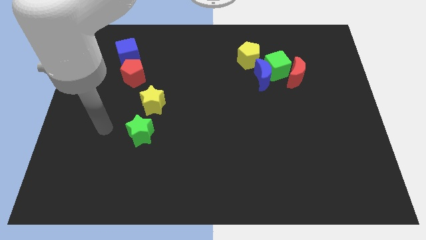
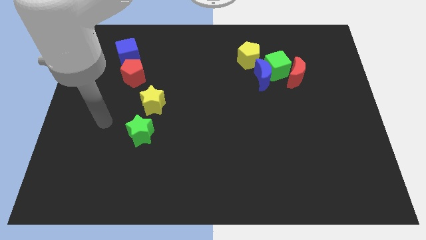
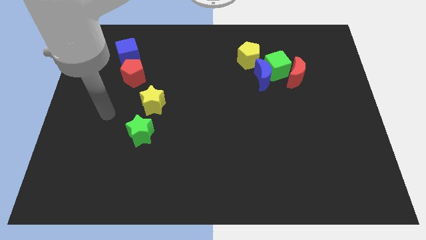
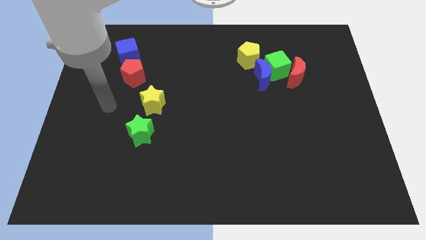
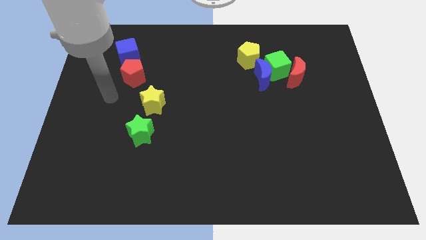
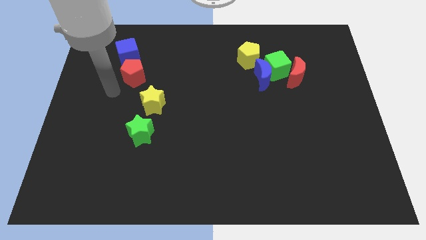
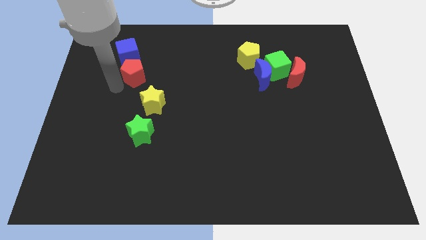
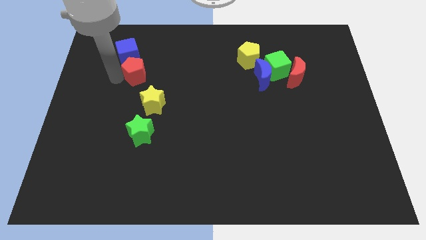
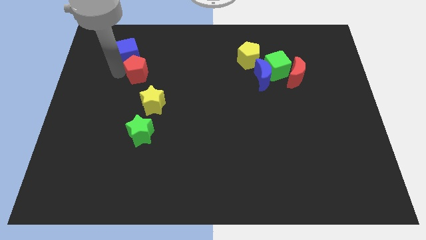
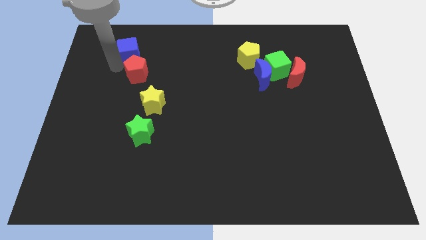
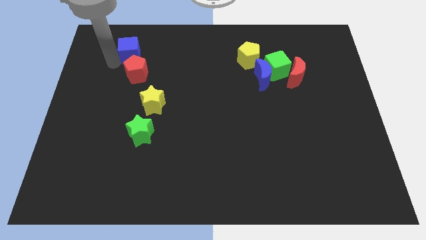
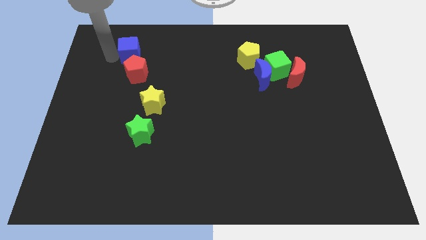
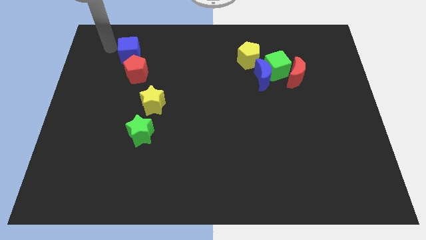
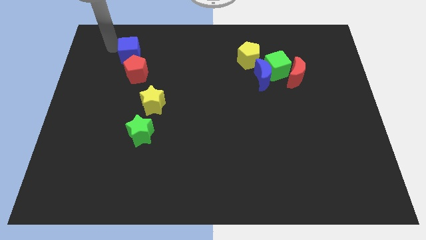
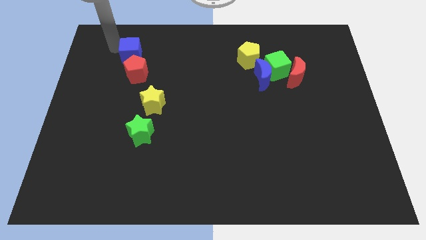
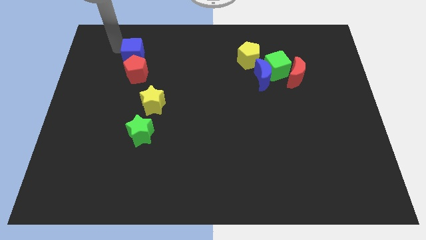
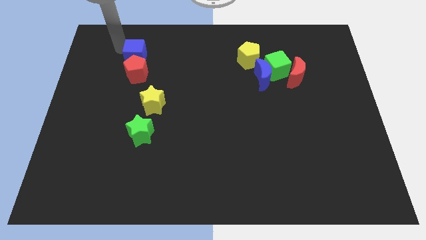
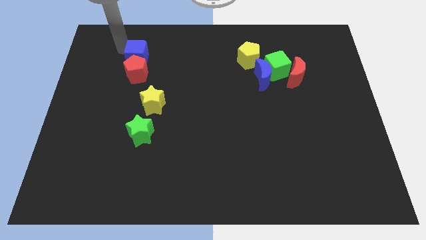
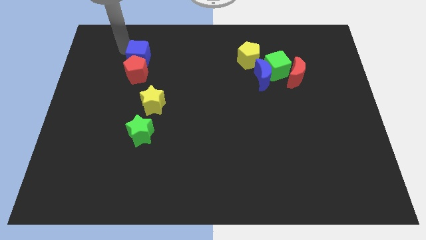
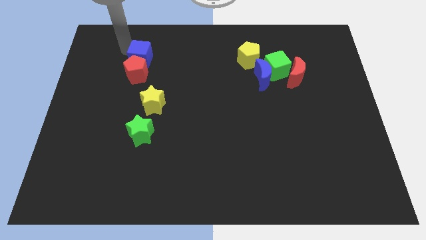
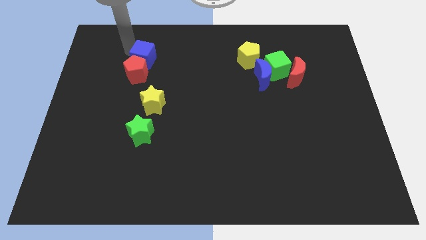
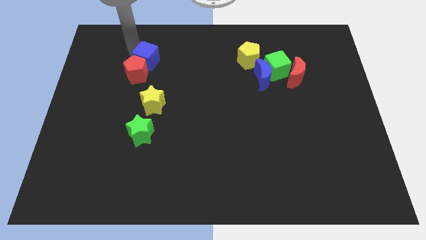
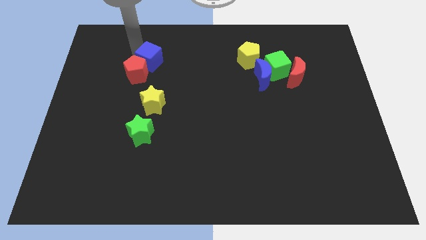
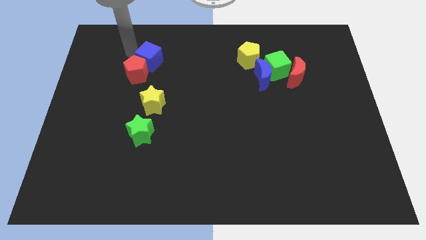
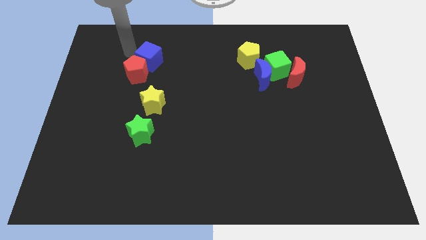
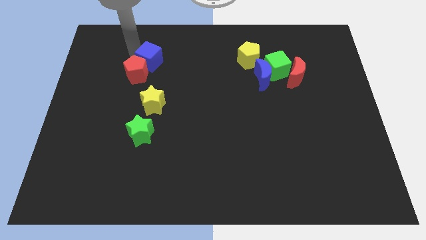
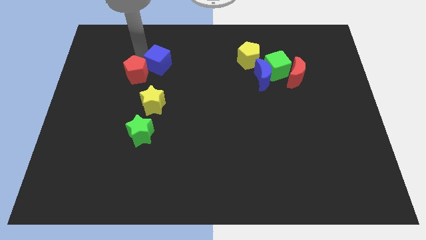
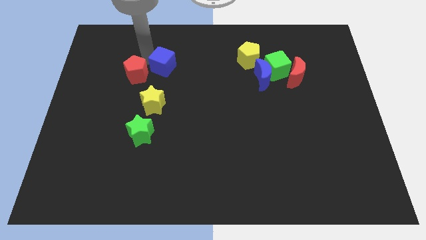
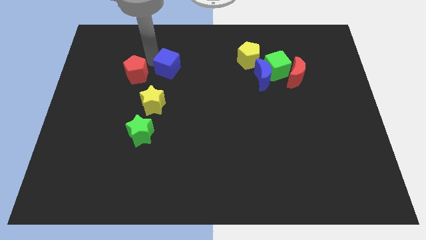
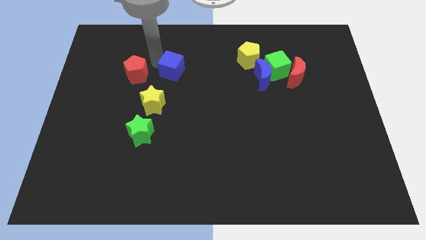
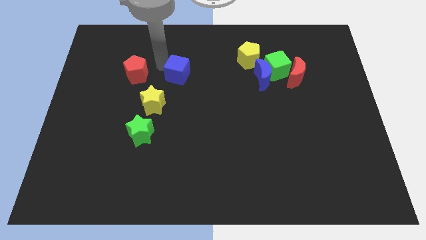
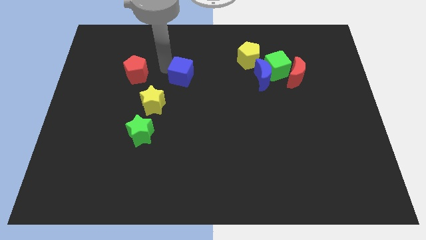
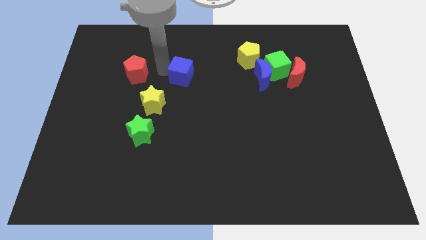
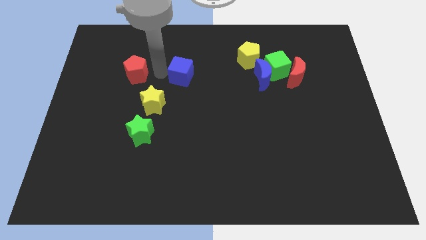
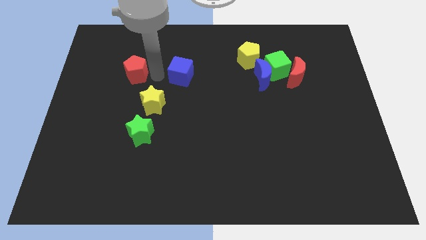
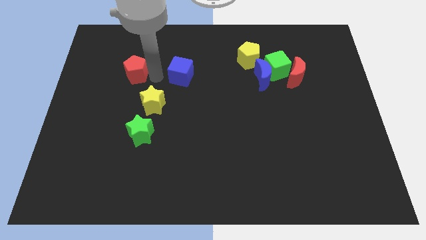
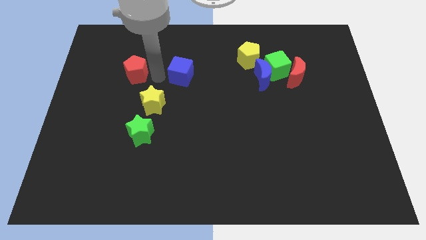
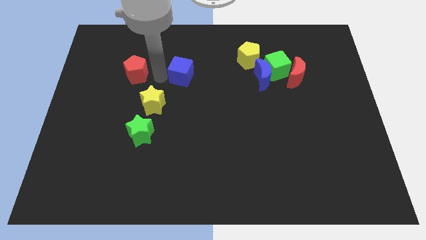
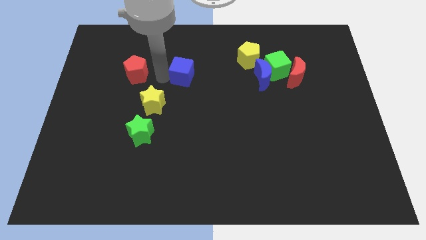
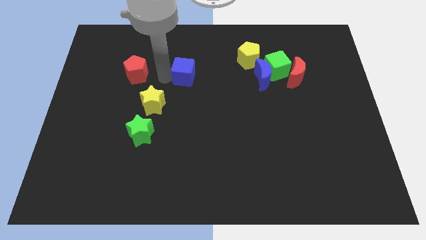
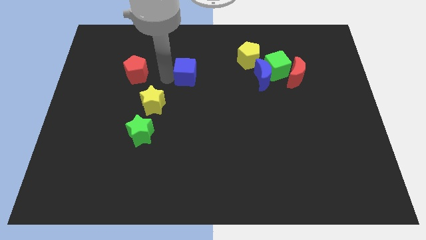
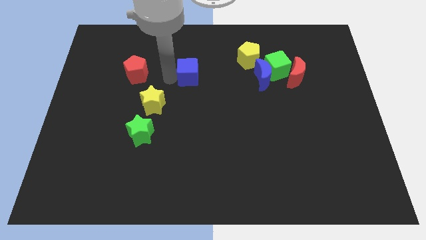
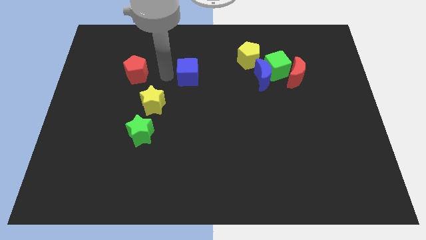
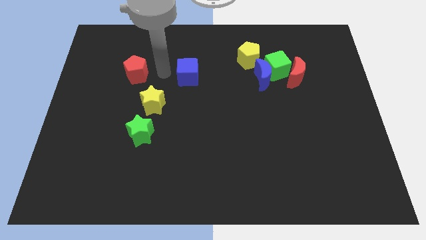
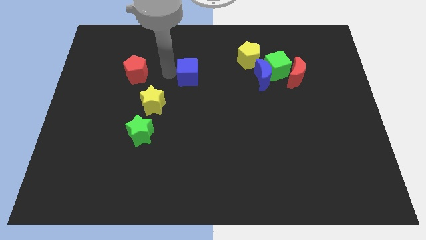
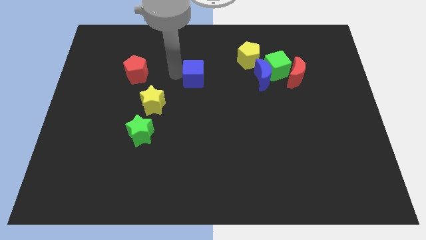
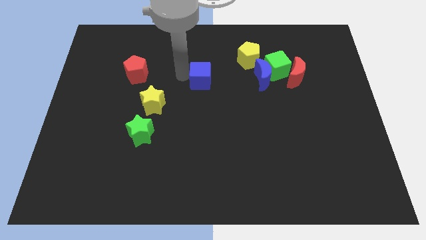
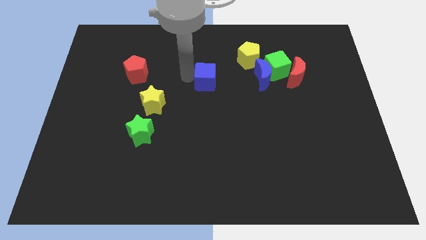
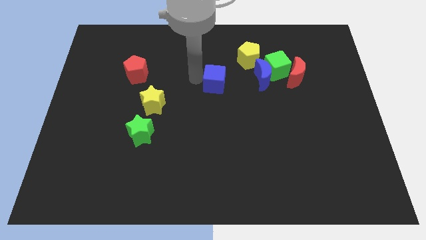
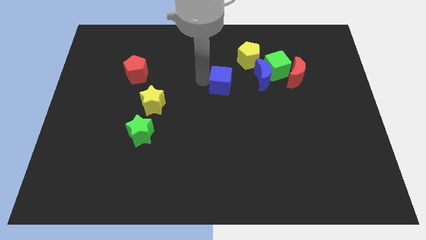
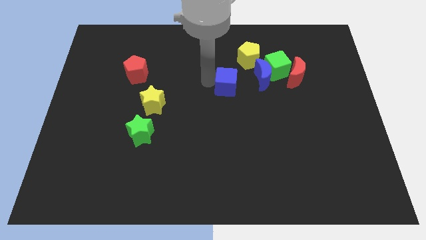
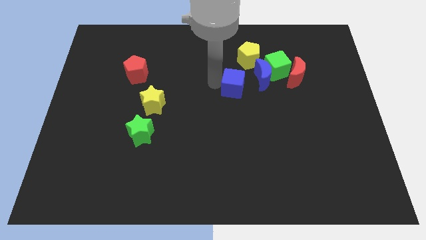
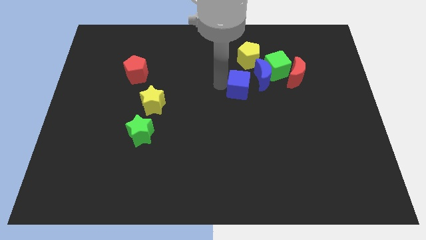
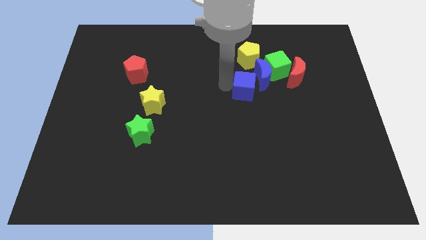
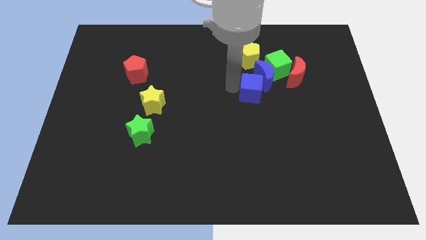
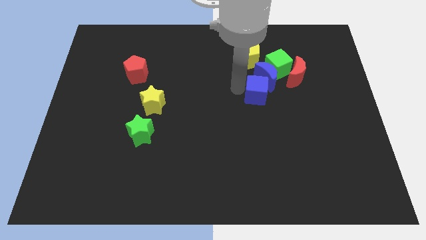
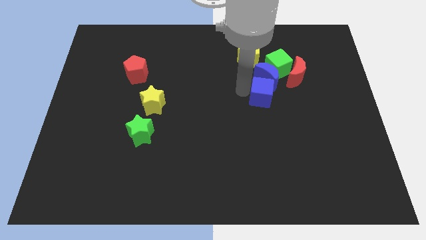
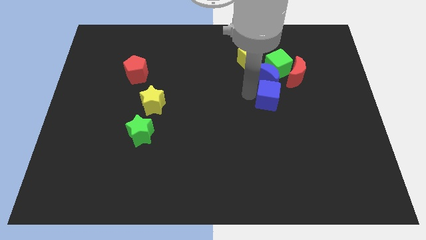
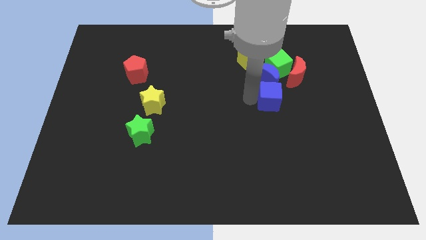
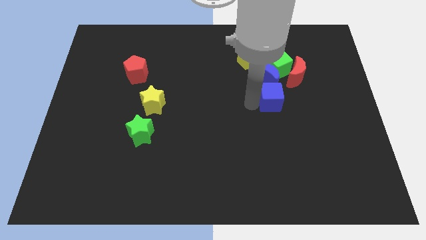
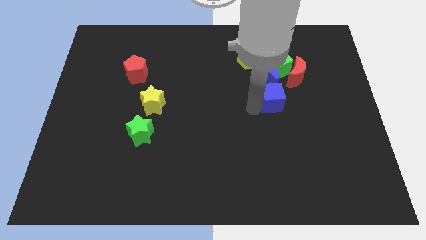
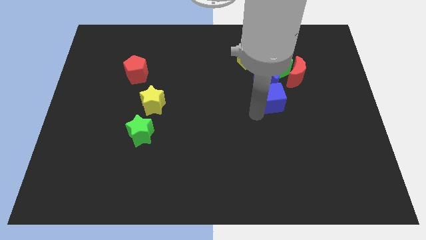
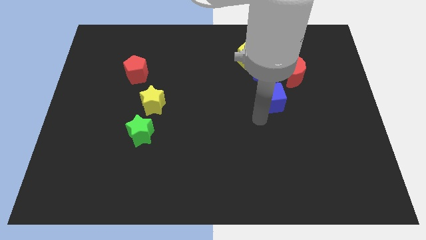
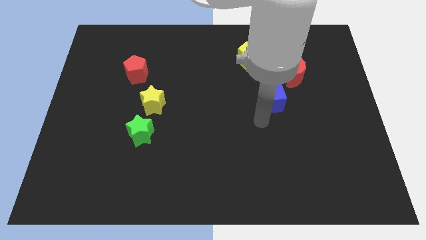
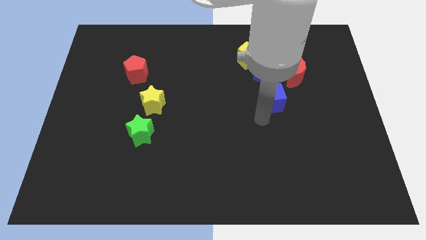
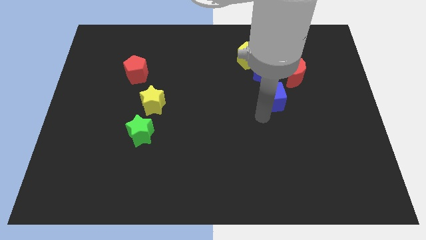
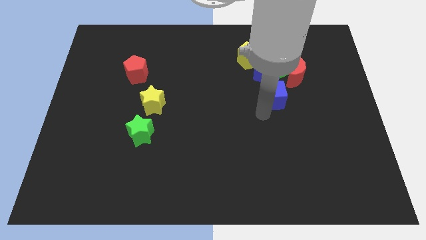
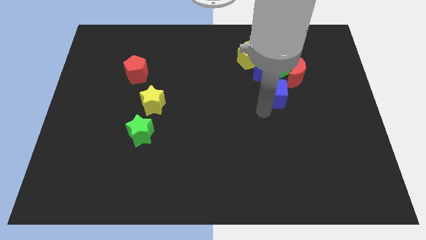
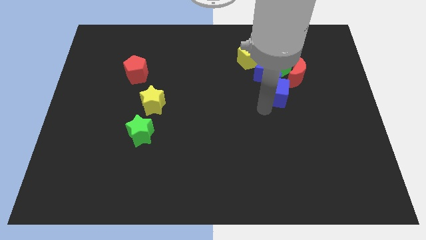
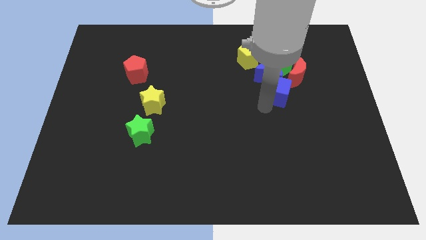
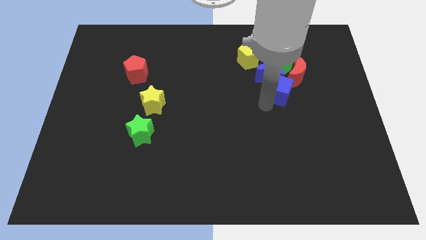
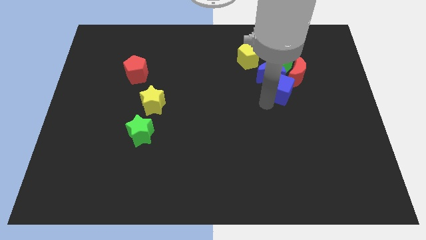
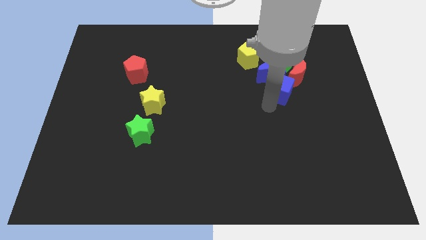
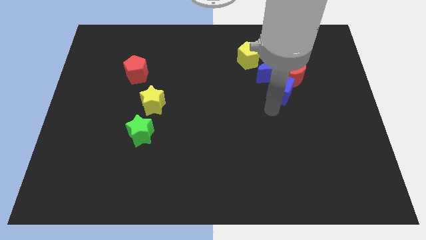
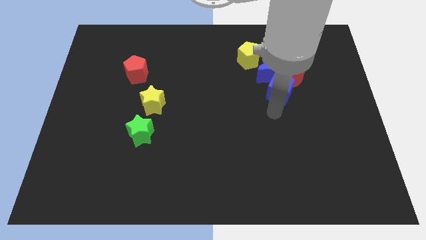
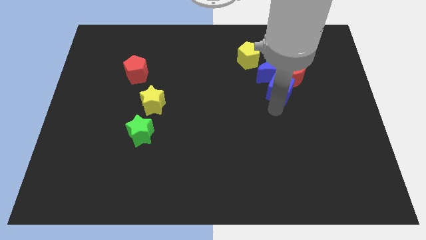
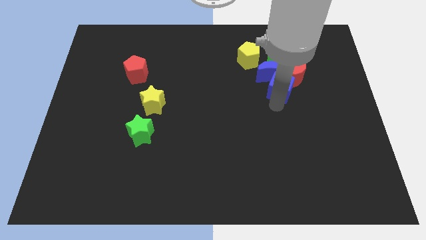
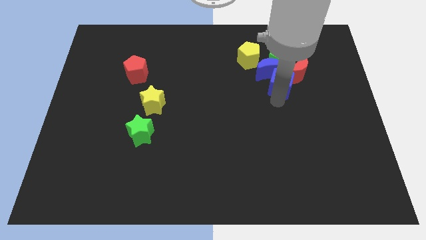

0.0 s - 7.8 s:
push the blue cube to the bottom right of the yellow pentagon
